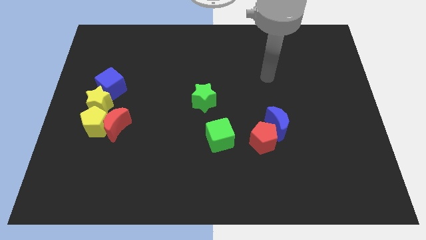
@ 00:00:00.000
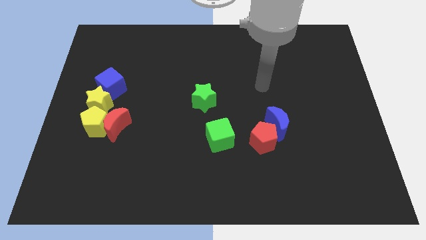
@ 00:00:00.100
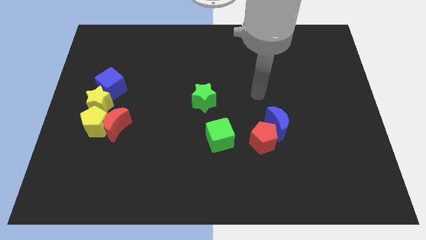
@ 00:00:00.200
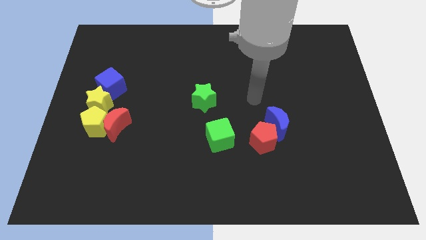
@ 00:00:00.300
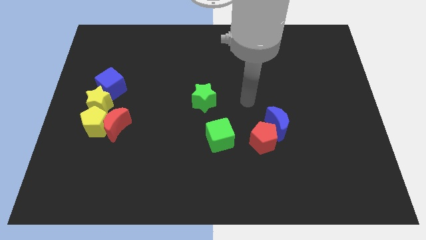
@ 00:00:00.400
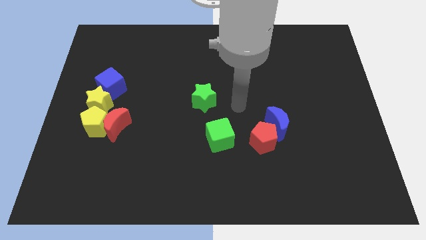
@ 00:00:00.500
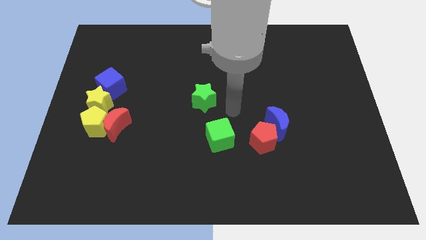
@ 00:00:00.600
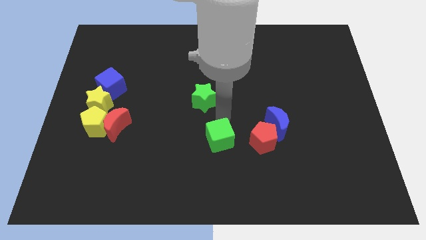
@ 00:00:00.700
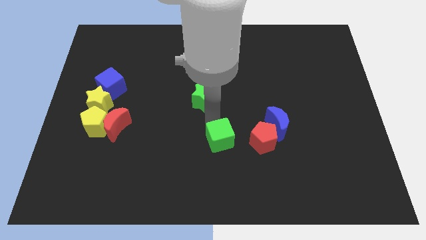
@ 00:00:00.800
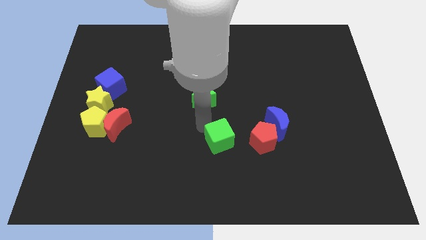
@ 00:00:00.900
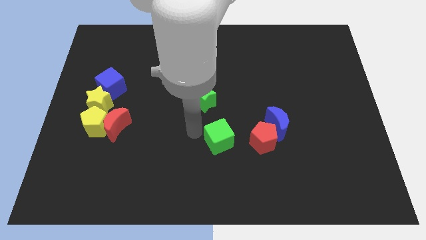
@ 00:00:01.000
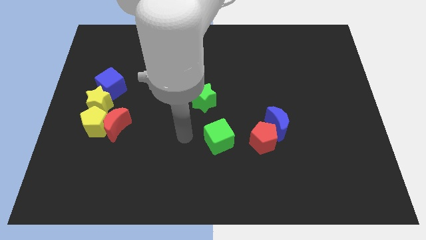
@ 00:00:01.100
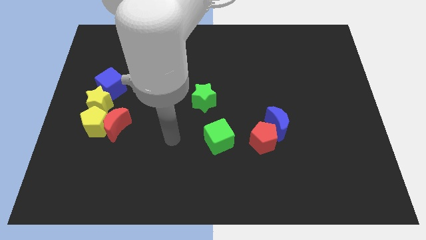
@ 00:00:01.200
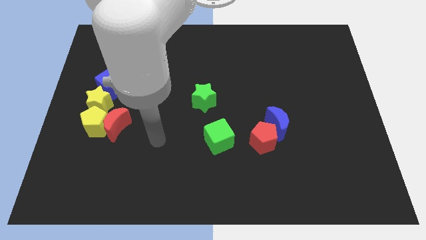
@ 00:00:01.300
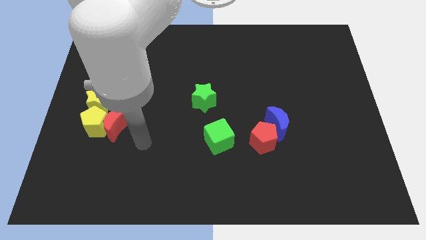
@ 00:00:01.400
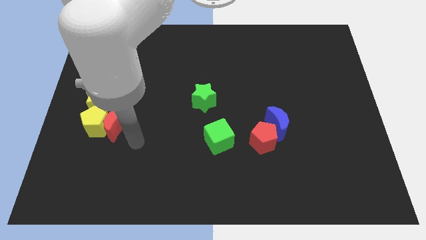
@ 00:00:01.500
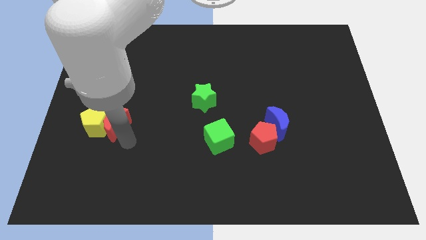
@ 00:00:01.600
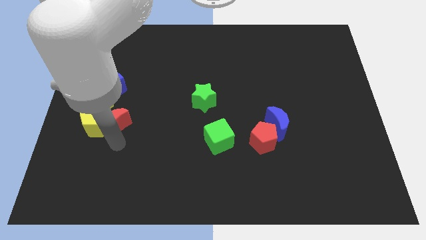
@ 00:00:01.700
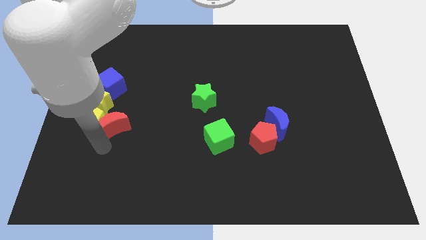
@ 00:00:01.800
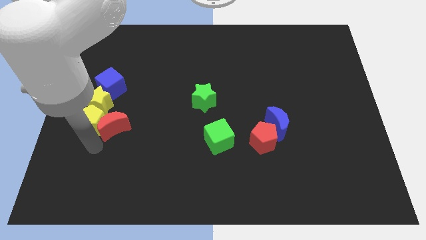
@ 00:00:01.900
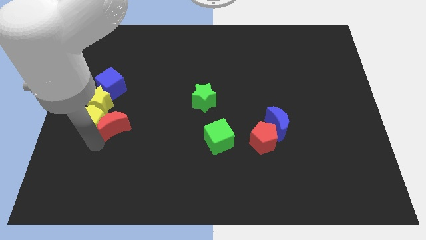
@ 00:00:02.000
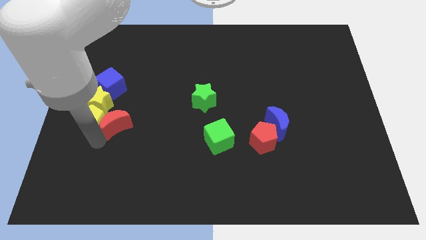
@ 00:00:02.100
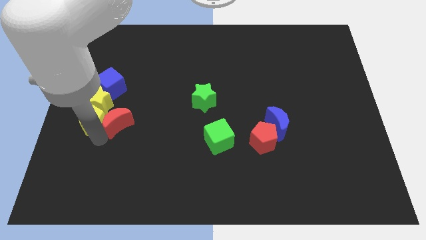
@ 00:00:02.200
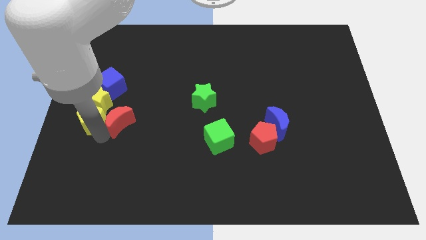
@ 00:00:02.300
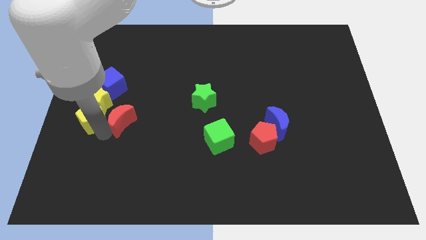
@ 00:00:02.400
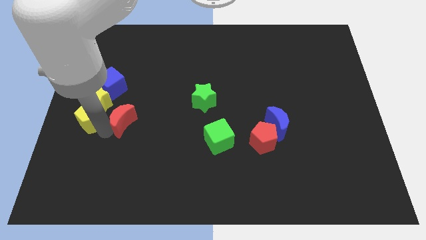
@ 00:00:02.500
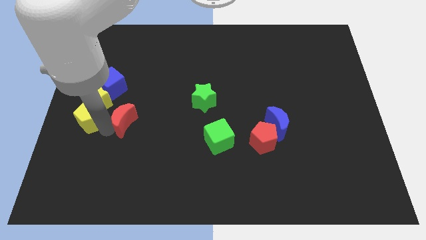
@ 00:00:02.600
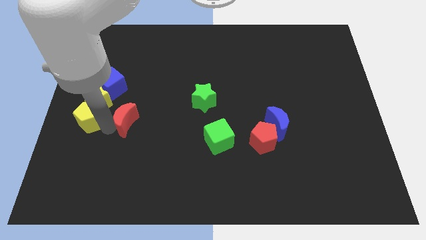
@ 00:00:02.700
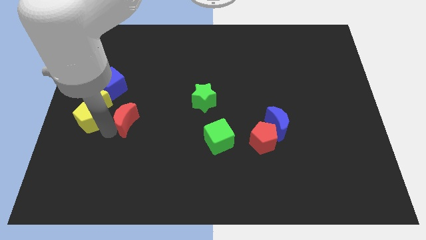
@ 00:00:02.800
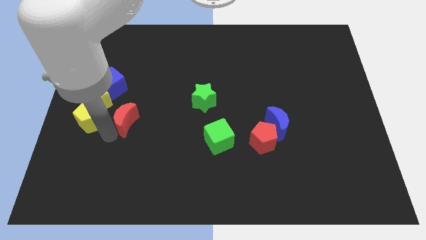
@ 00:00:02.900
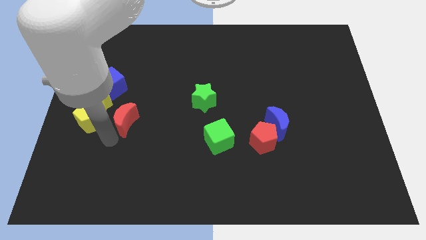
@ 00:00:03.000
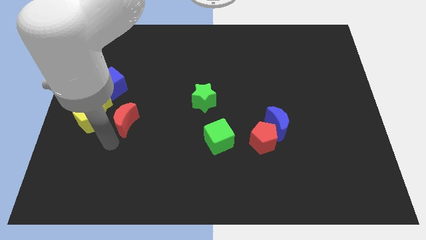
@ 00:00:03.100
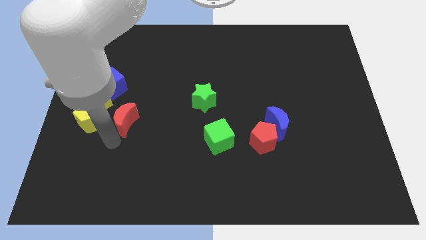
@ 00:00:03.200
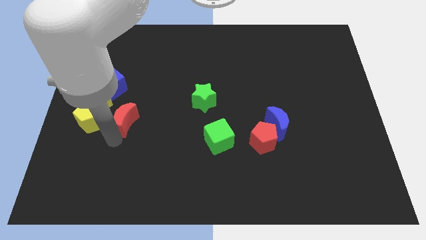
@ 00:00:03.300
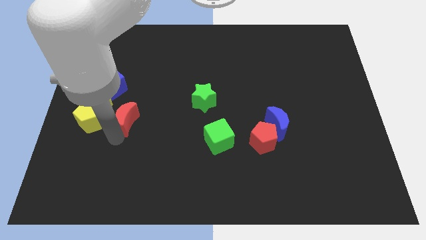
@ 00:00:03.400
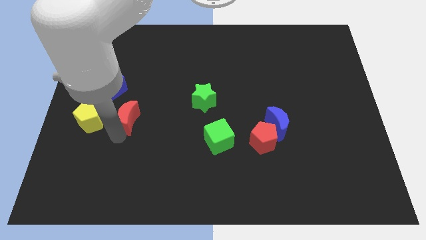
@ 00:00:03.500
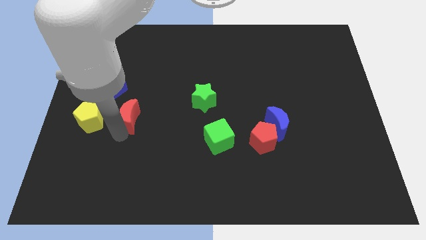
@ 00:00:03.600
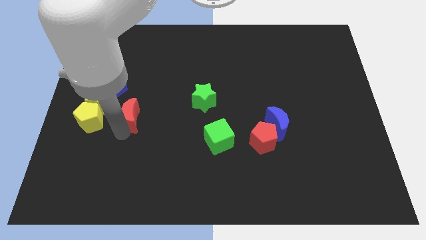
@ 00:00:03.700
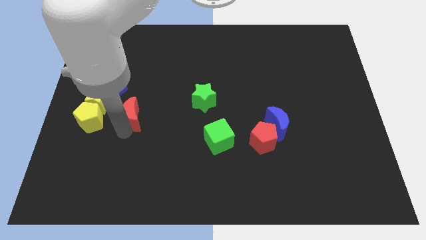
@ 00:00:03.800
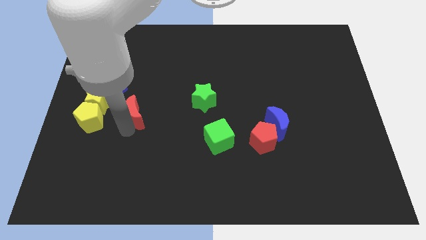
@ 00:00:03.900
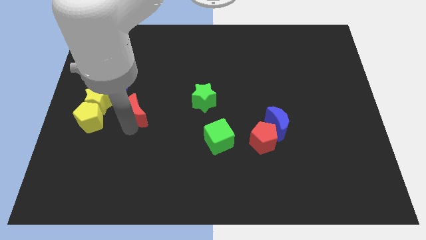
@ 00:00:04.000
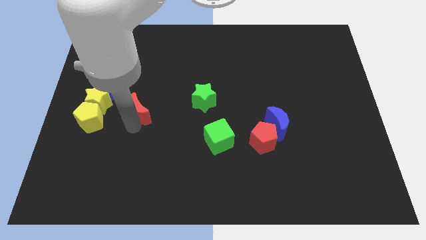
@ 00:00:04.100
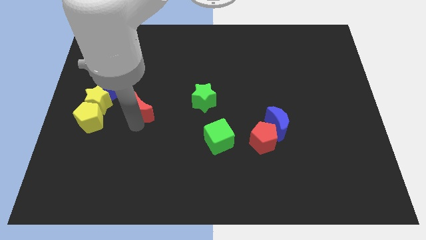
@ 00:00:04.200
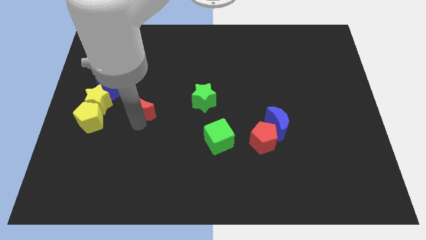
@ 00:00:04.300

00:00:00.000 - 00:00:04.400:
slide the red moon somewhat up and right diagonally

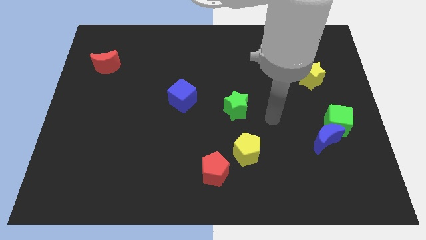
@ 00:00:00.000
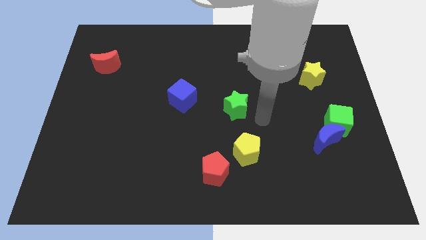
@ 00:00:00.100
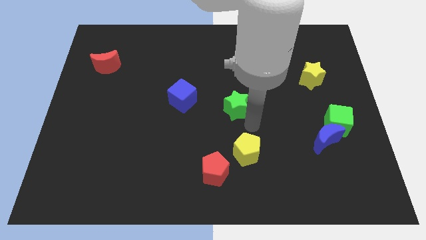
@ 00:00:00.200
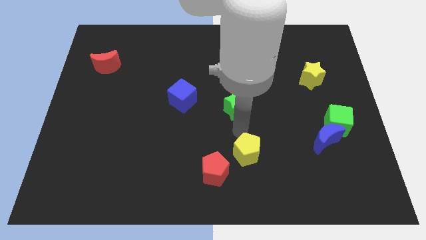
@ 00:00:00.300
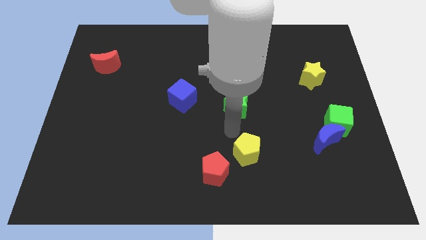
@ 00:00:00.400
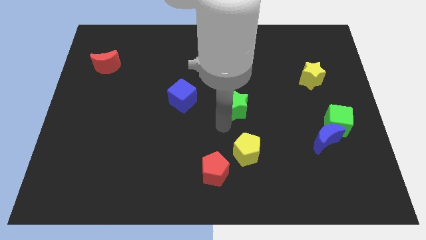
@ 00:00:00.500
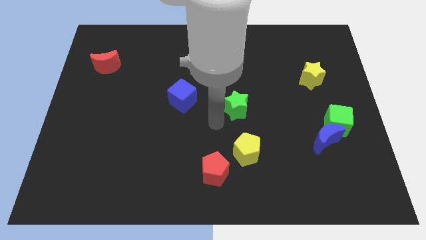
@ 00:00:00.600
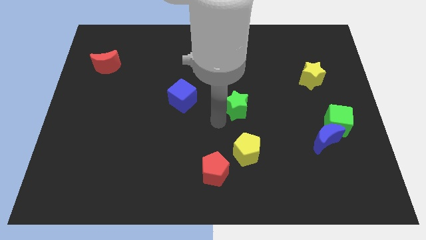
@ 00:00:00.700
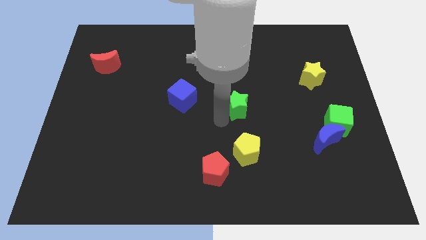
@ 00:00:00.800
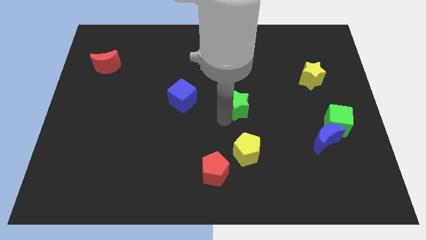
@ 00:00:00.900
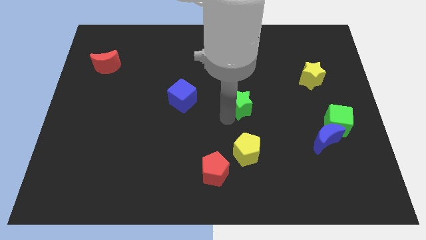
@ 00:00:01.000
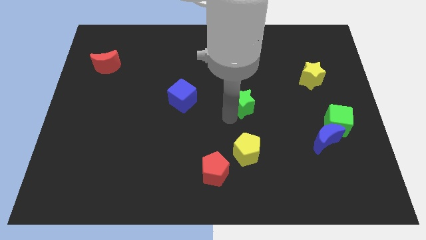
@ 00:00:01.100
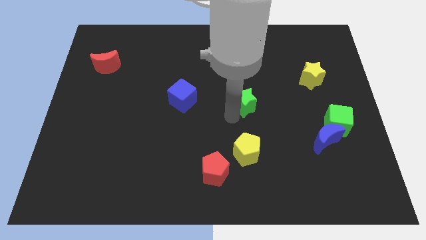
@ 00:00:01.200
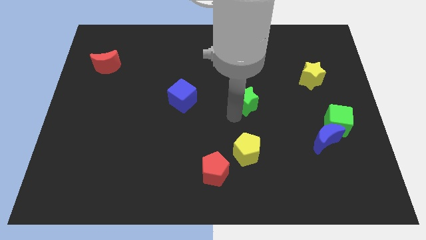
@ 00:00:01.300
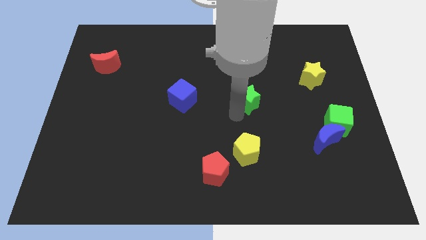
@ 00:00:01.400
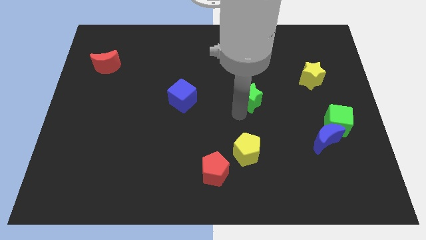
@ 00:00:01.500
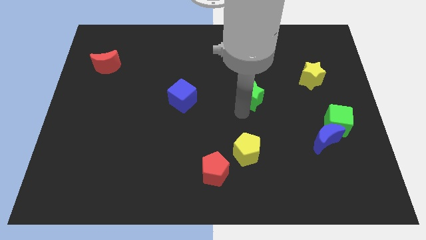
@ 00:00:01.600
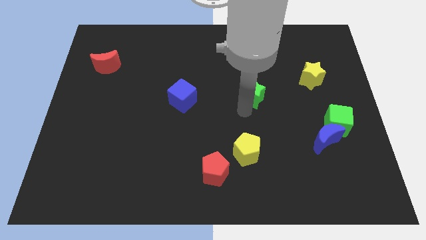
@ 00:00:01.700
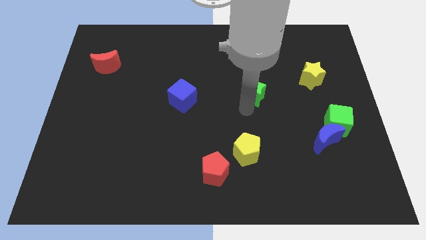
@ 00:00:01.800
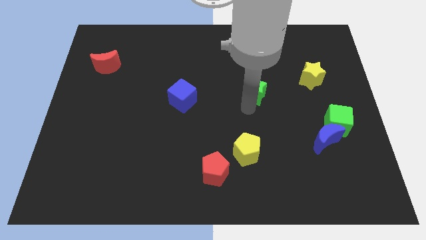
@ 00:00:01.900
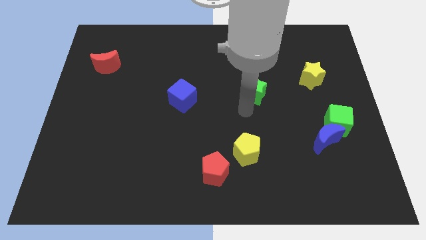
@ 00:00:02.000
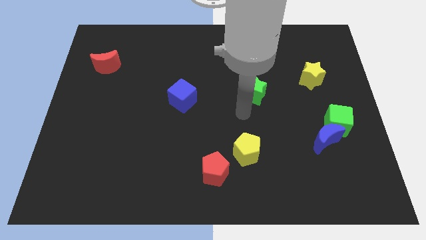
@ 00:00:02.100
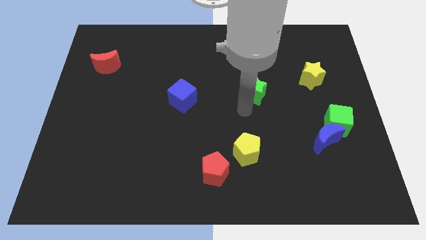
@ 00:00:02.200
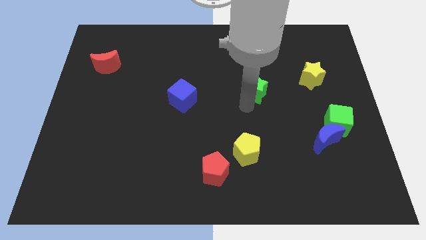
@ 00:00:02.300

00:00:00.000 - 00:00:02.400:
slightly move the green star diagonally upwards and to the right

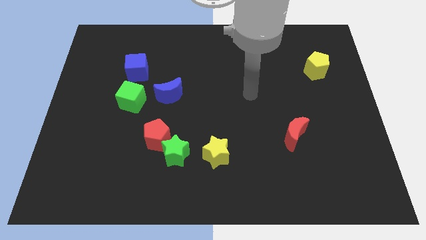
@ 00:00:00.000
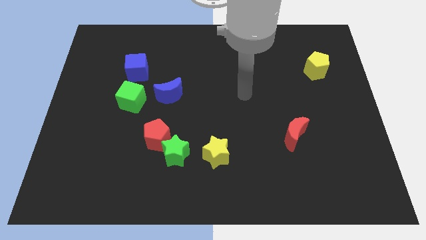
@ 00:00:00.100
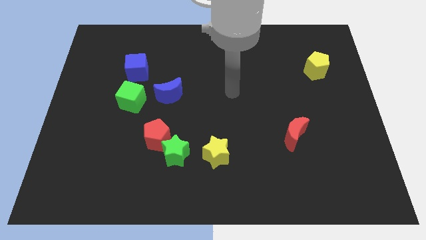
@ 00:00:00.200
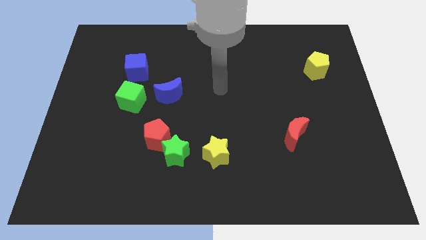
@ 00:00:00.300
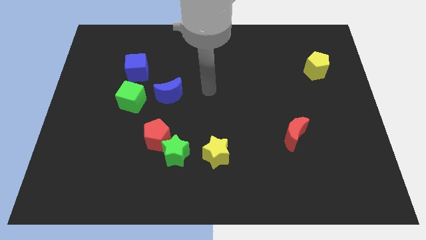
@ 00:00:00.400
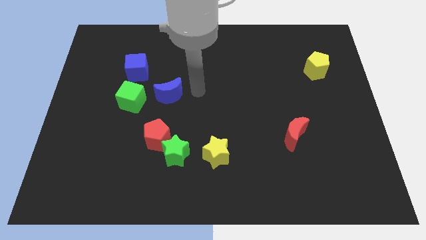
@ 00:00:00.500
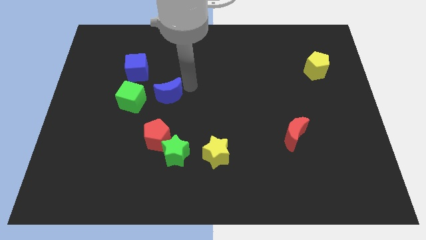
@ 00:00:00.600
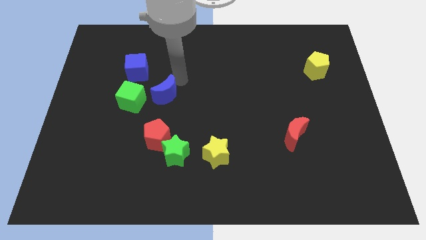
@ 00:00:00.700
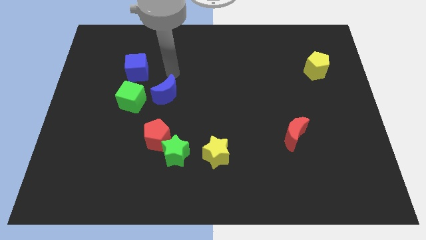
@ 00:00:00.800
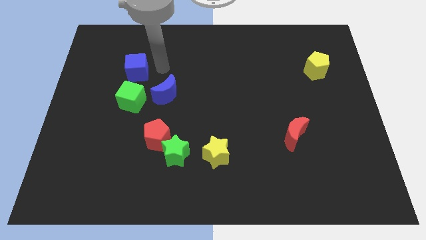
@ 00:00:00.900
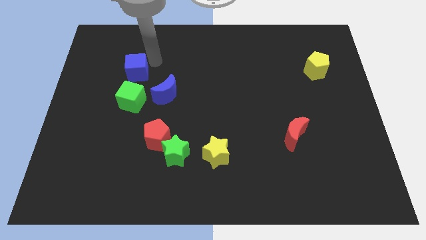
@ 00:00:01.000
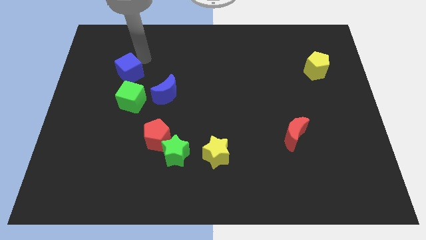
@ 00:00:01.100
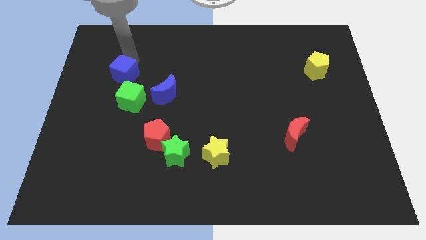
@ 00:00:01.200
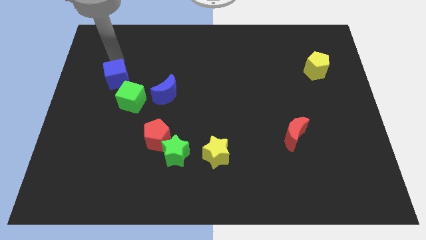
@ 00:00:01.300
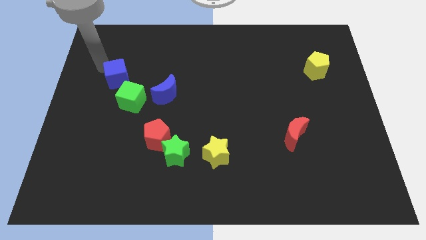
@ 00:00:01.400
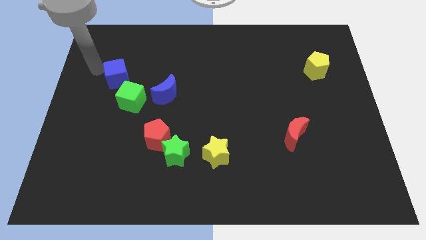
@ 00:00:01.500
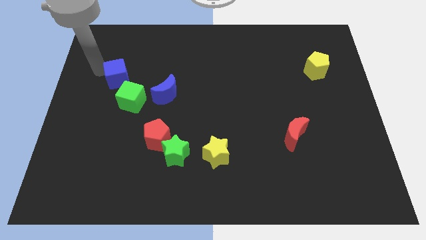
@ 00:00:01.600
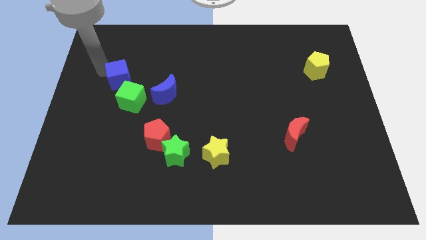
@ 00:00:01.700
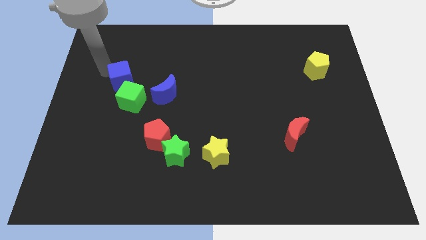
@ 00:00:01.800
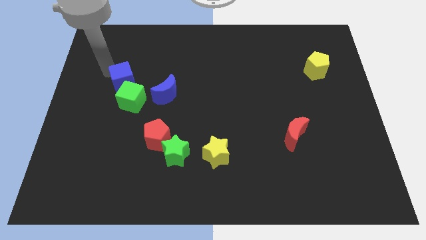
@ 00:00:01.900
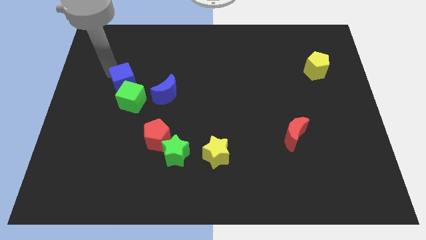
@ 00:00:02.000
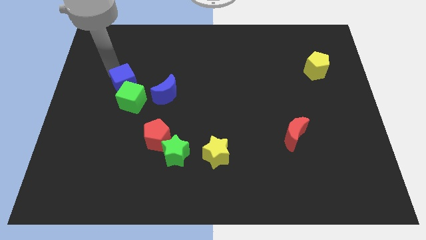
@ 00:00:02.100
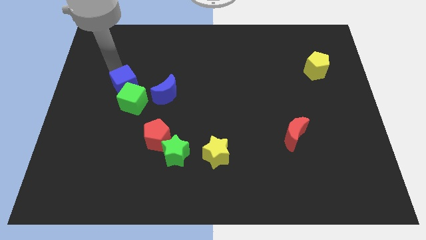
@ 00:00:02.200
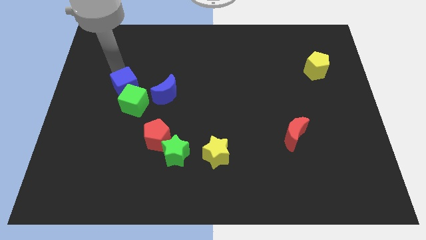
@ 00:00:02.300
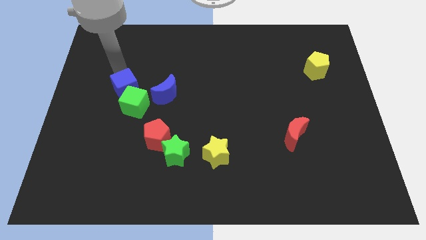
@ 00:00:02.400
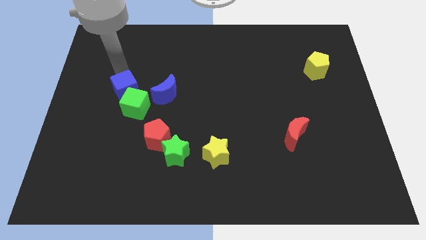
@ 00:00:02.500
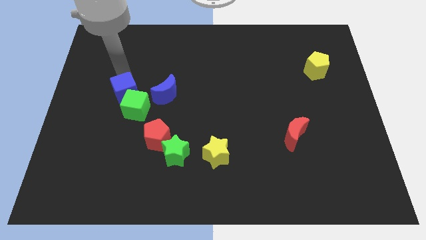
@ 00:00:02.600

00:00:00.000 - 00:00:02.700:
push the blue cube downwards a little bit
